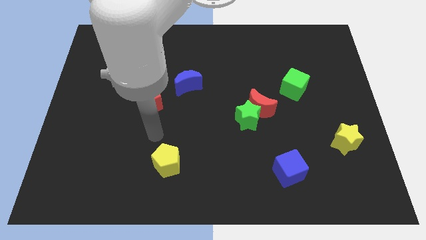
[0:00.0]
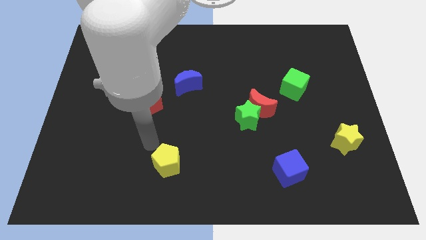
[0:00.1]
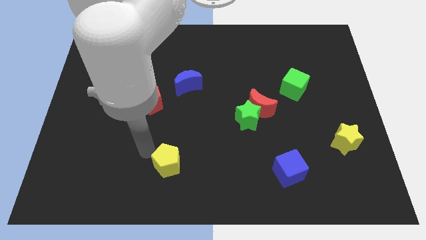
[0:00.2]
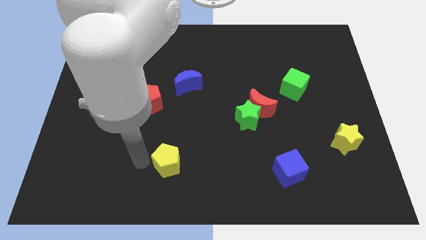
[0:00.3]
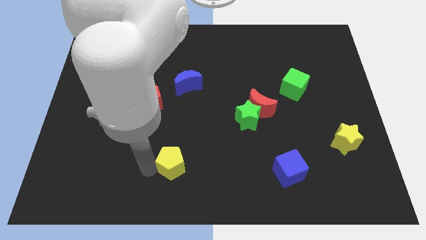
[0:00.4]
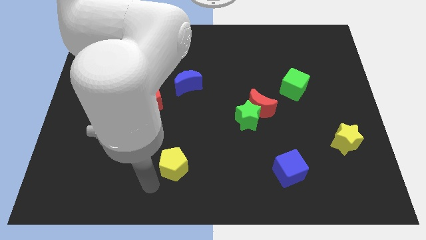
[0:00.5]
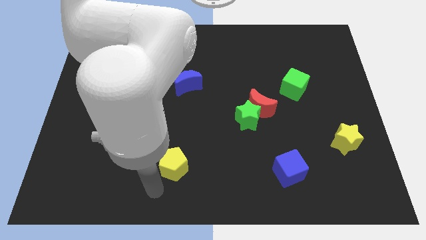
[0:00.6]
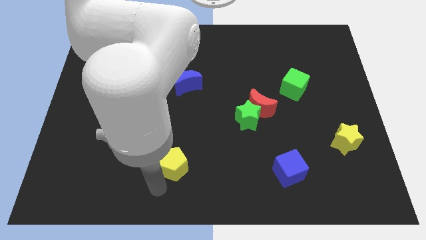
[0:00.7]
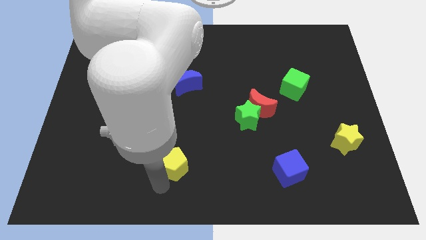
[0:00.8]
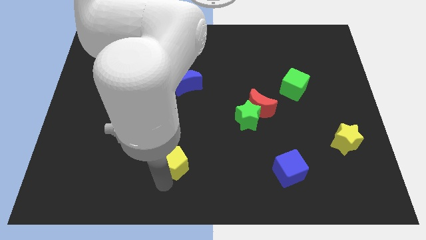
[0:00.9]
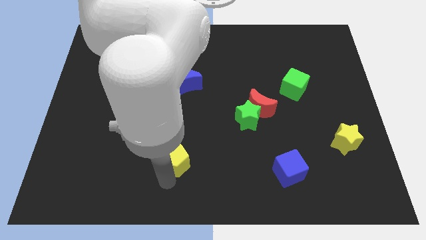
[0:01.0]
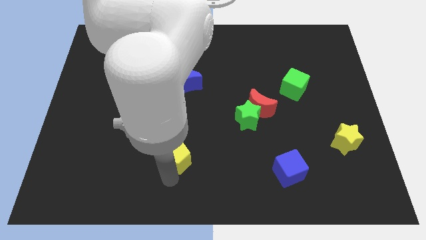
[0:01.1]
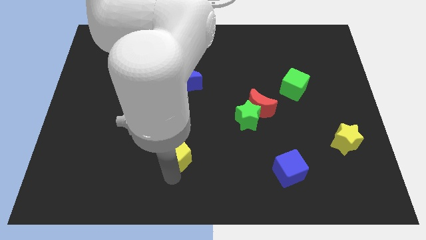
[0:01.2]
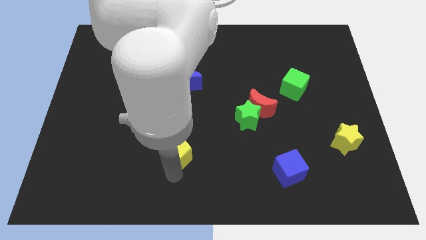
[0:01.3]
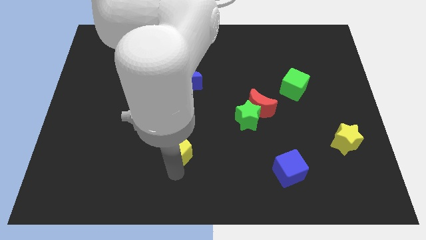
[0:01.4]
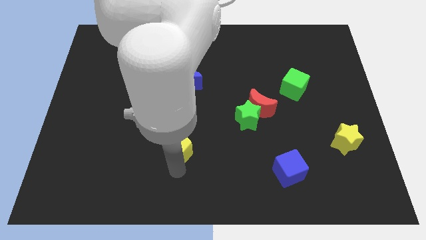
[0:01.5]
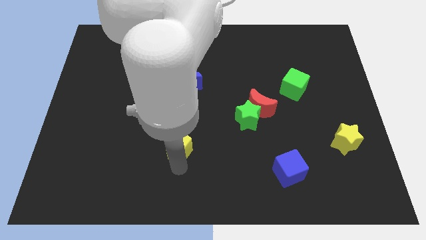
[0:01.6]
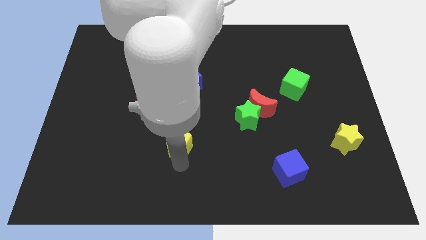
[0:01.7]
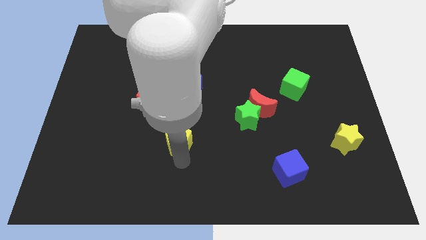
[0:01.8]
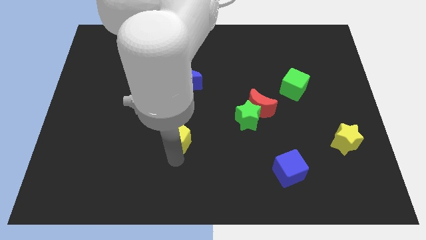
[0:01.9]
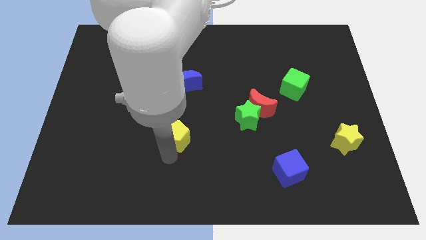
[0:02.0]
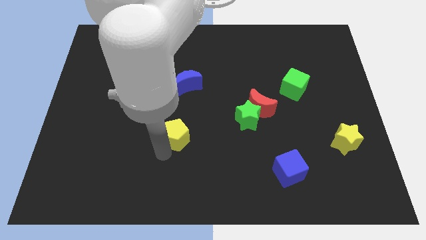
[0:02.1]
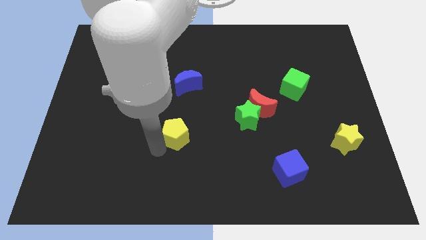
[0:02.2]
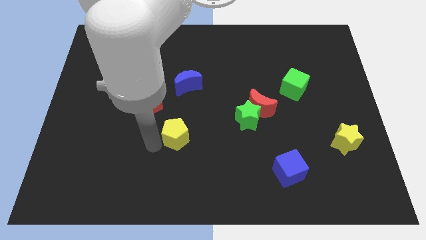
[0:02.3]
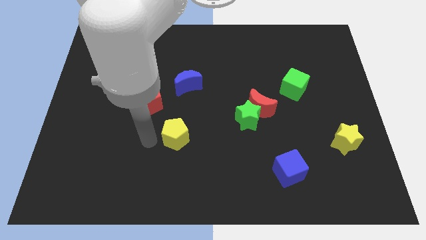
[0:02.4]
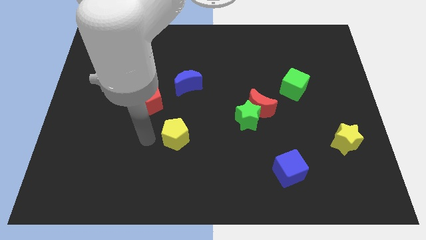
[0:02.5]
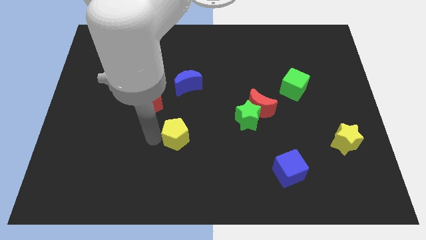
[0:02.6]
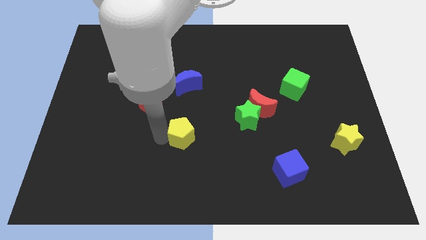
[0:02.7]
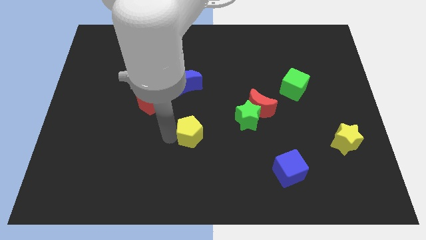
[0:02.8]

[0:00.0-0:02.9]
slightly move the yellow pentagon diagonally up and to the right

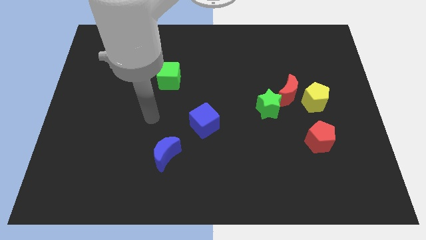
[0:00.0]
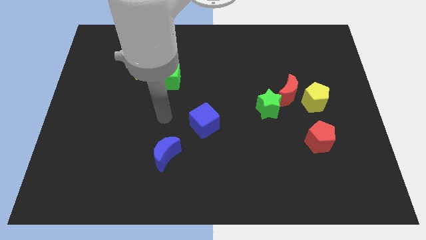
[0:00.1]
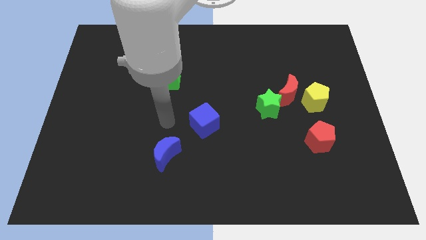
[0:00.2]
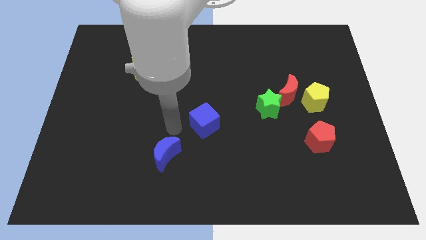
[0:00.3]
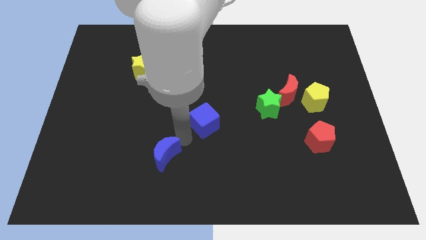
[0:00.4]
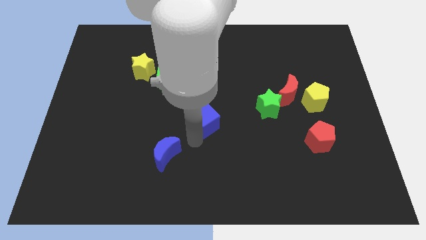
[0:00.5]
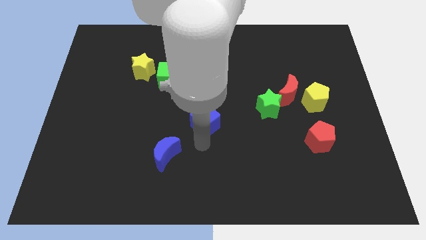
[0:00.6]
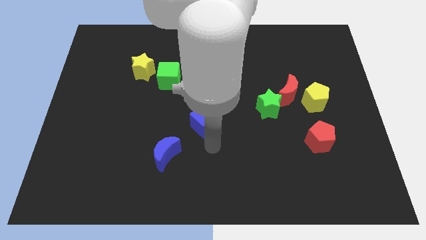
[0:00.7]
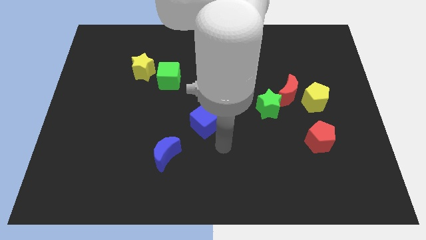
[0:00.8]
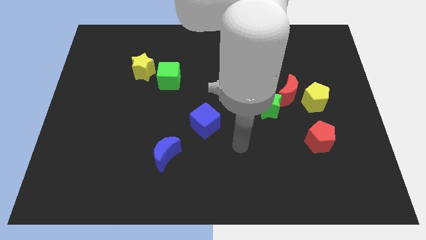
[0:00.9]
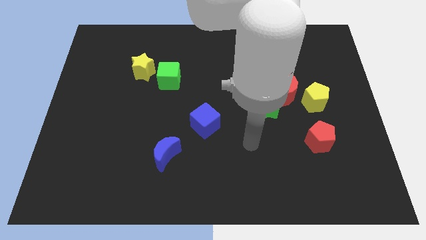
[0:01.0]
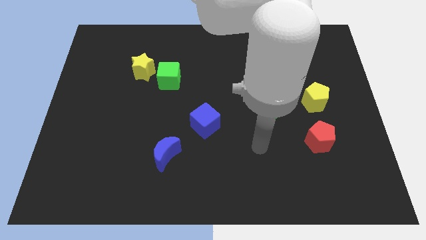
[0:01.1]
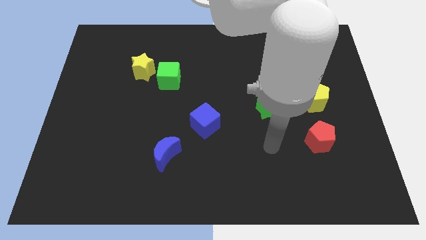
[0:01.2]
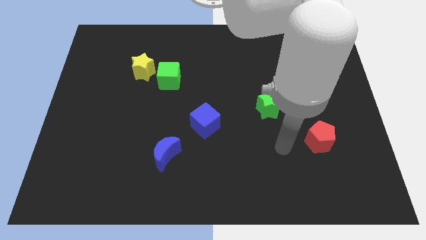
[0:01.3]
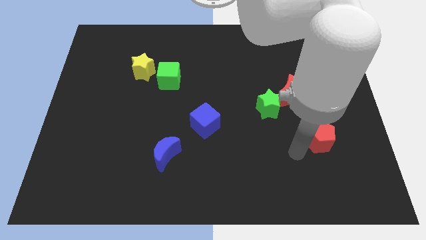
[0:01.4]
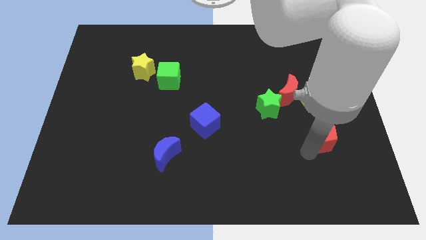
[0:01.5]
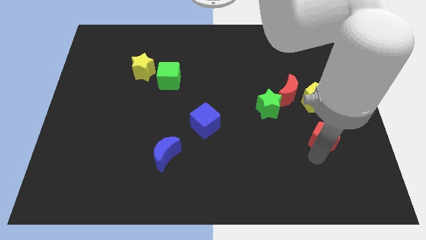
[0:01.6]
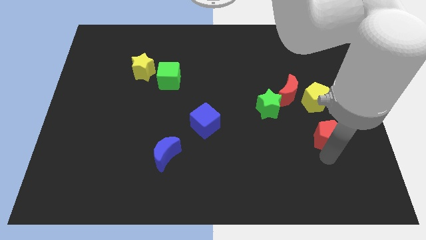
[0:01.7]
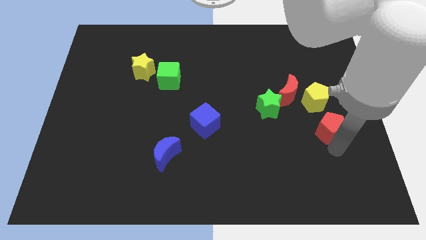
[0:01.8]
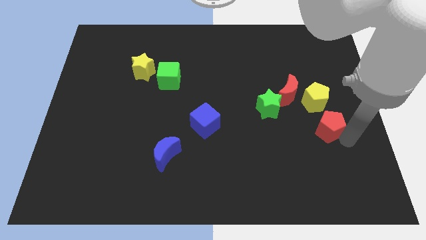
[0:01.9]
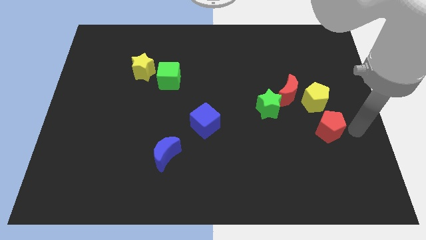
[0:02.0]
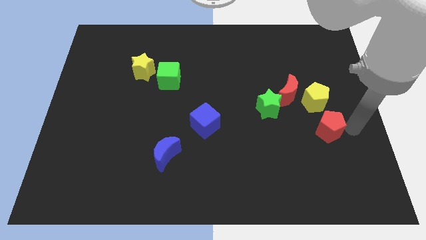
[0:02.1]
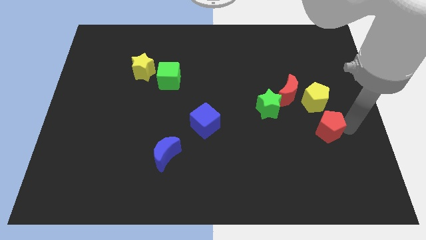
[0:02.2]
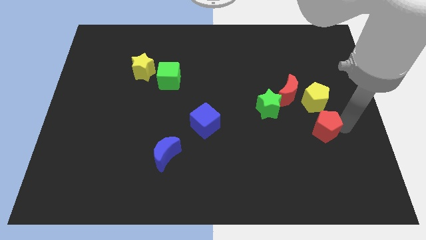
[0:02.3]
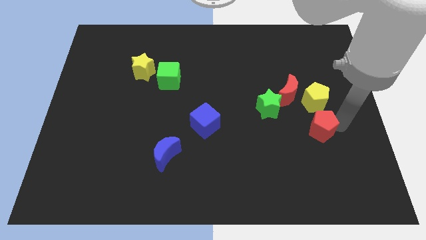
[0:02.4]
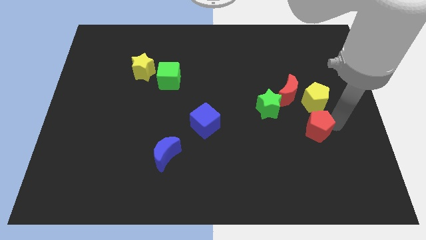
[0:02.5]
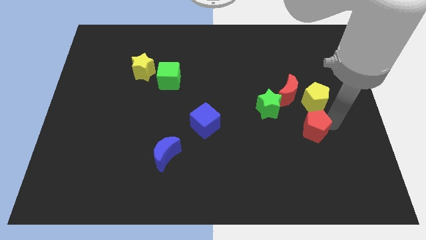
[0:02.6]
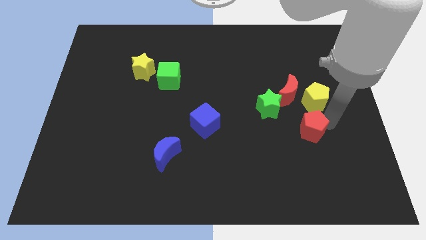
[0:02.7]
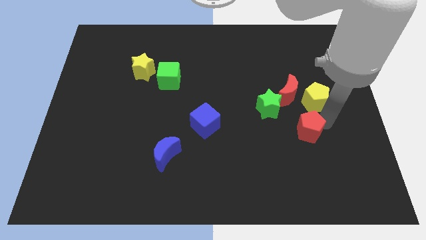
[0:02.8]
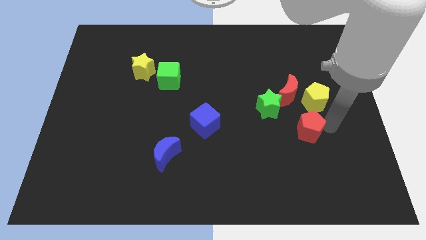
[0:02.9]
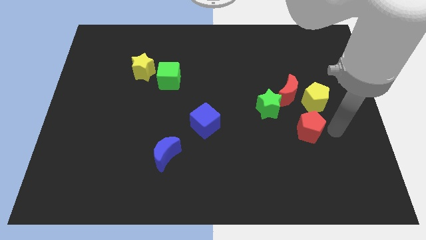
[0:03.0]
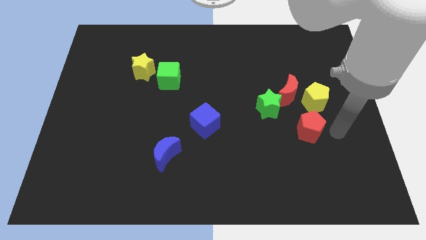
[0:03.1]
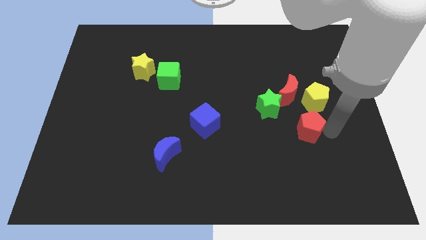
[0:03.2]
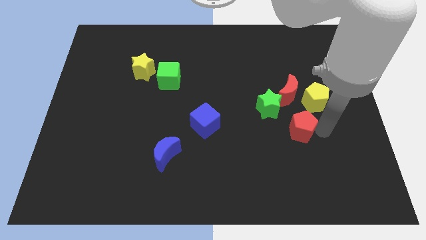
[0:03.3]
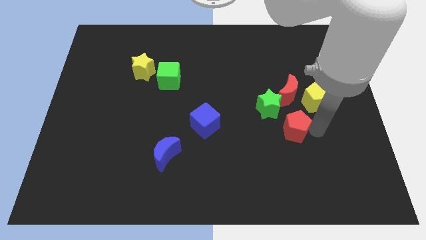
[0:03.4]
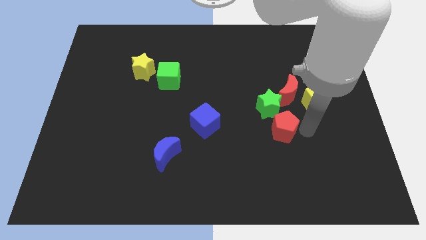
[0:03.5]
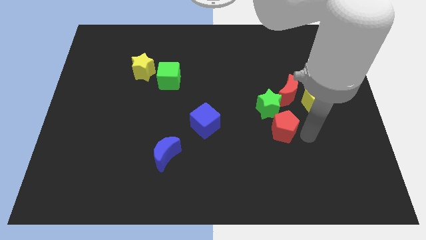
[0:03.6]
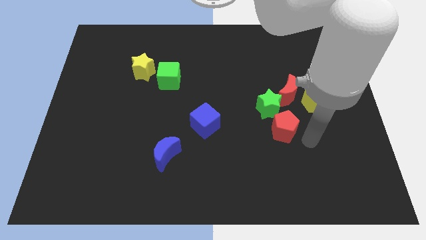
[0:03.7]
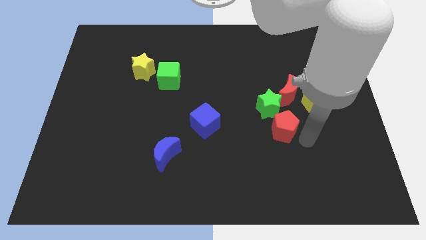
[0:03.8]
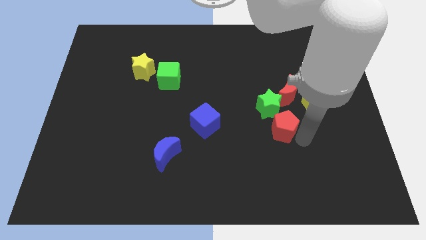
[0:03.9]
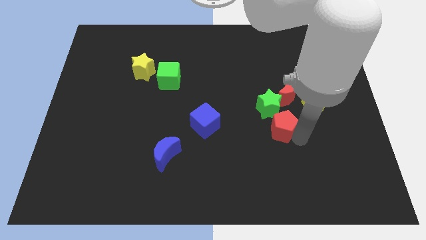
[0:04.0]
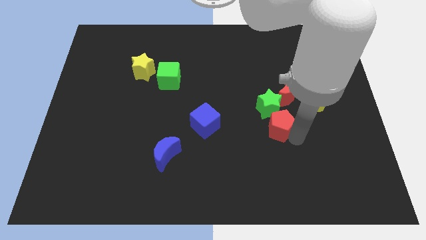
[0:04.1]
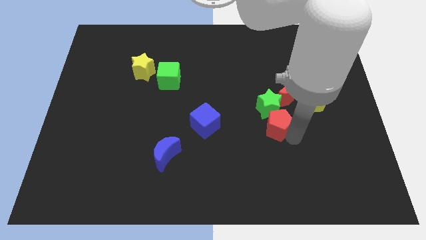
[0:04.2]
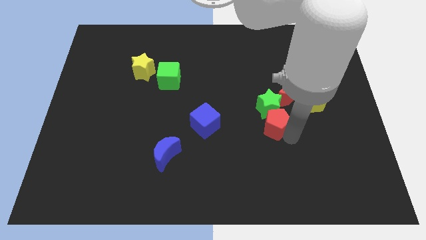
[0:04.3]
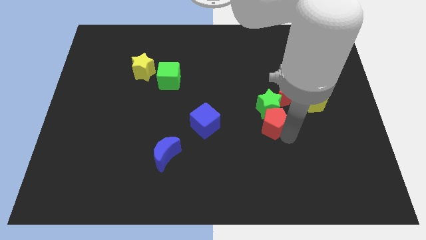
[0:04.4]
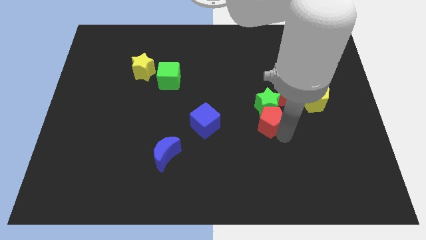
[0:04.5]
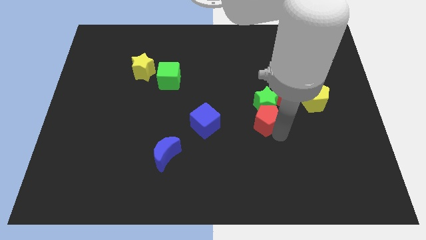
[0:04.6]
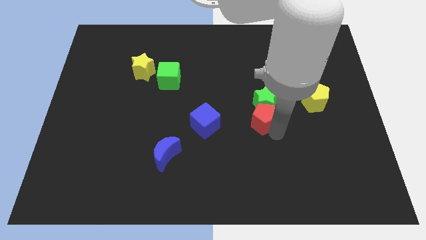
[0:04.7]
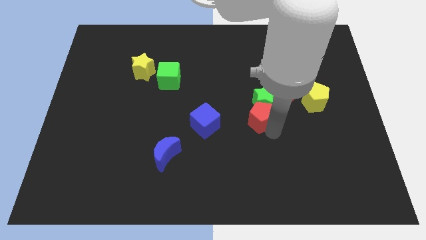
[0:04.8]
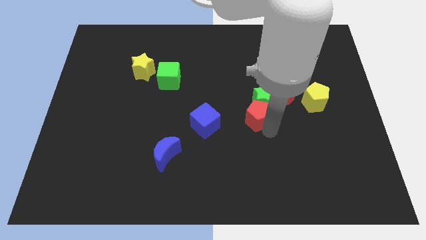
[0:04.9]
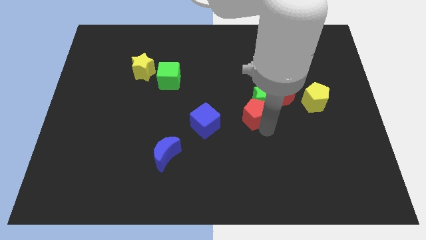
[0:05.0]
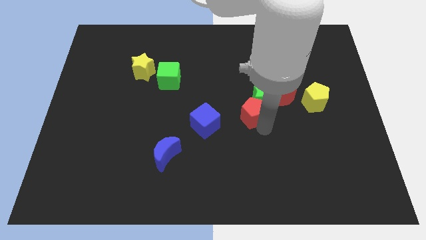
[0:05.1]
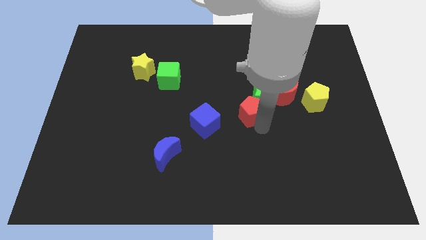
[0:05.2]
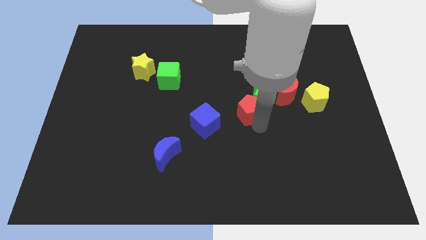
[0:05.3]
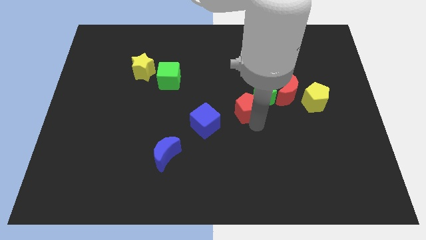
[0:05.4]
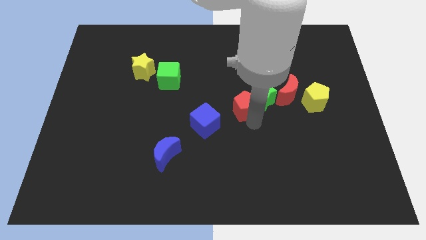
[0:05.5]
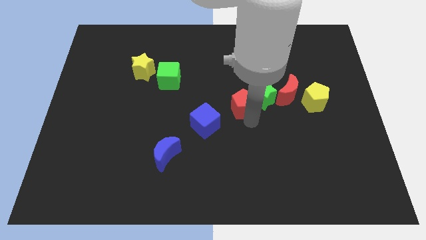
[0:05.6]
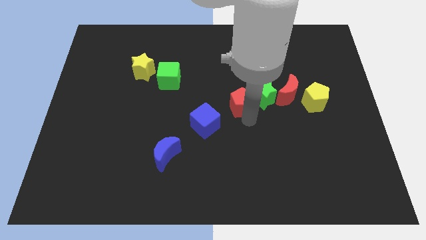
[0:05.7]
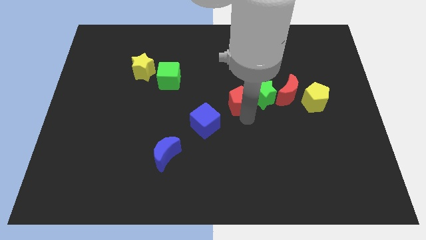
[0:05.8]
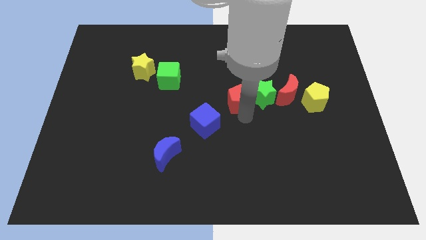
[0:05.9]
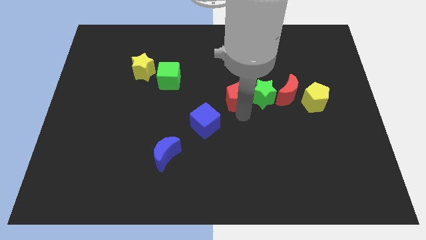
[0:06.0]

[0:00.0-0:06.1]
move the red pentagon upwards and then to the left
